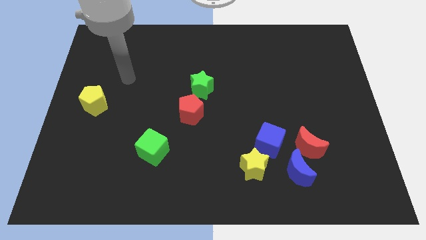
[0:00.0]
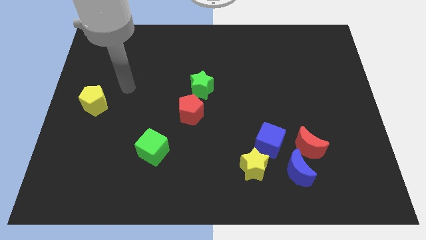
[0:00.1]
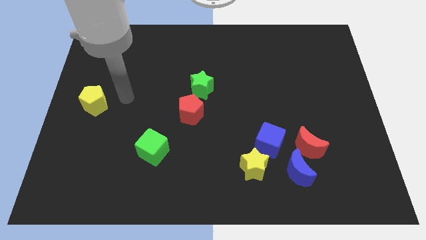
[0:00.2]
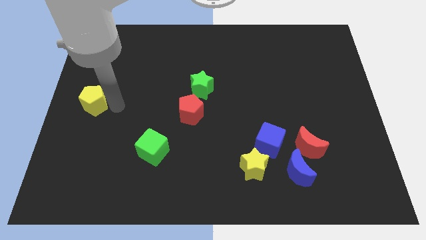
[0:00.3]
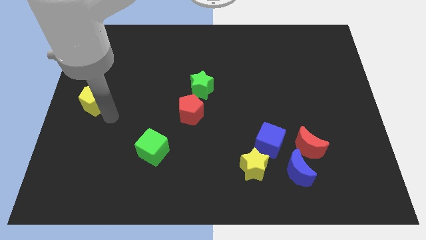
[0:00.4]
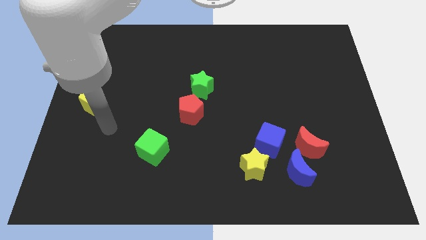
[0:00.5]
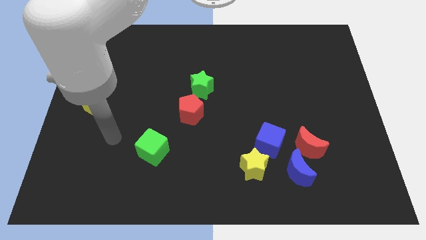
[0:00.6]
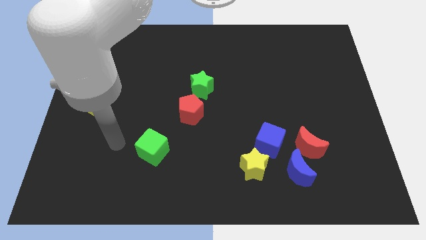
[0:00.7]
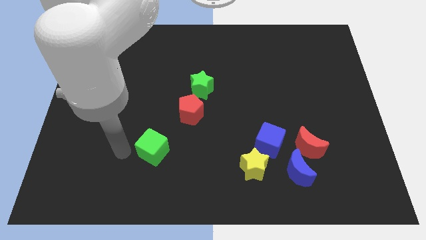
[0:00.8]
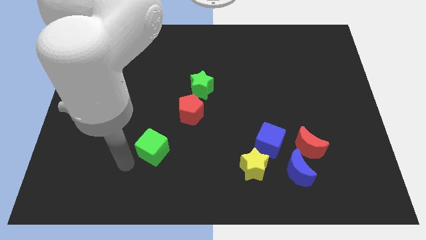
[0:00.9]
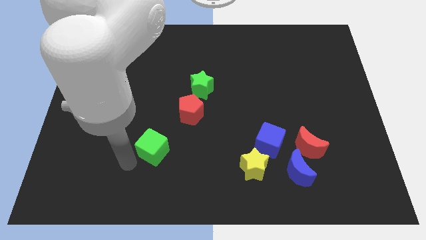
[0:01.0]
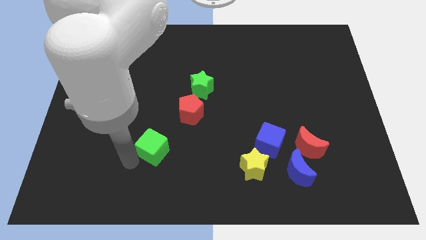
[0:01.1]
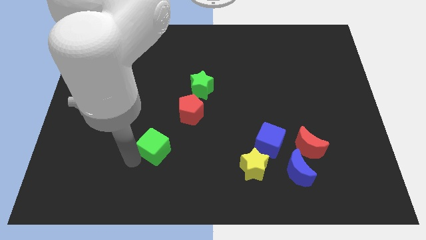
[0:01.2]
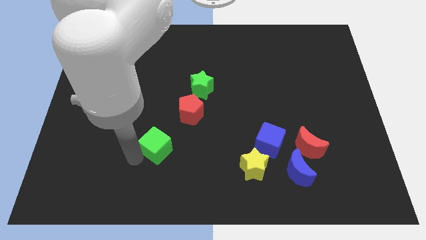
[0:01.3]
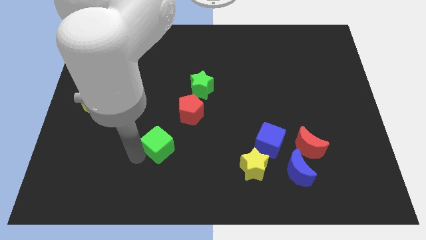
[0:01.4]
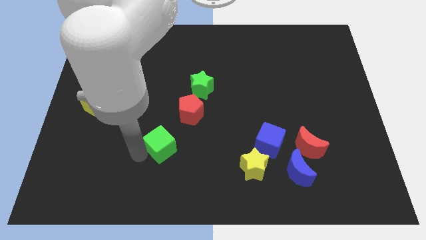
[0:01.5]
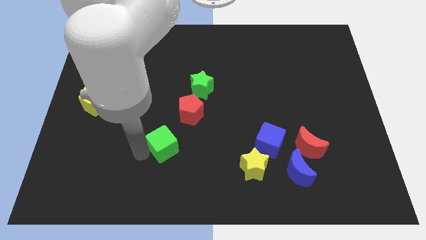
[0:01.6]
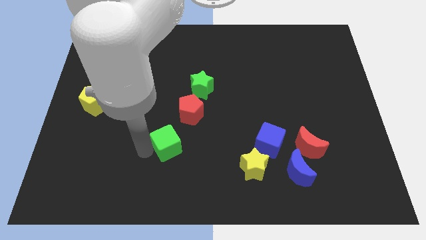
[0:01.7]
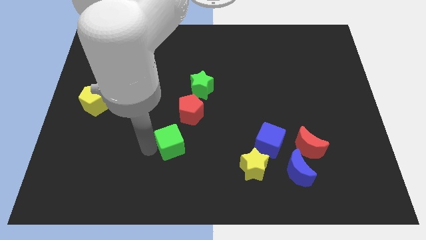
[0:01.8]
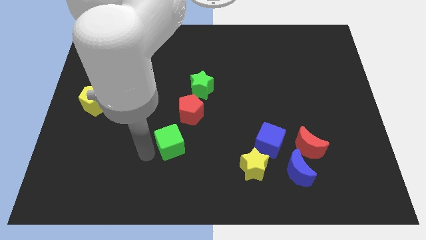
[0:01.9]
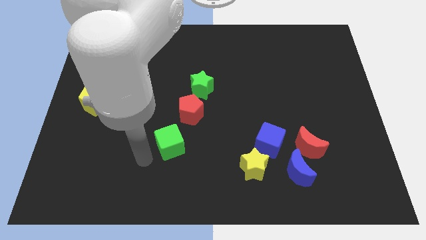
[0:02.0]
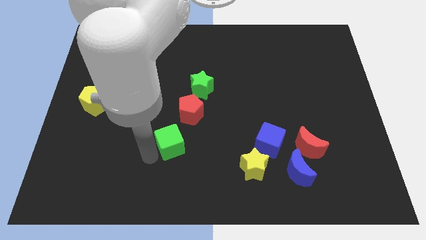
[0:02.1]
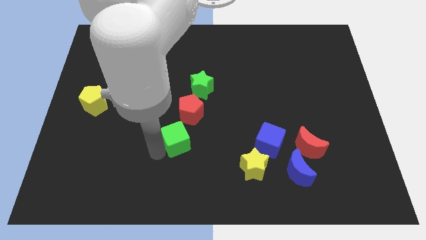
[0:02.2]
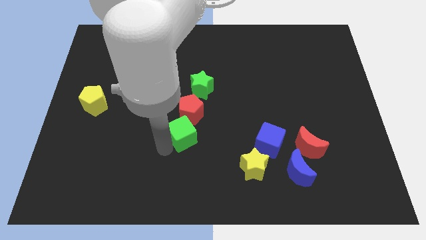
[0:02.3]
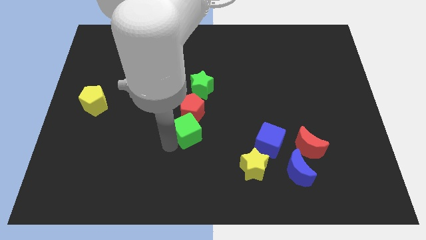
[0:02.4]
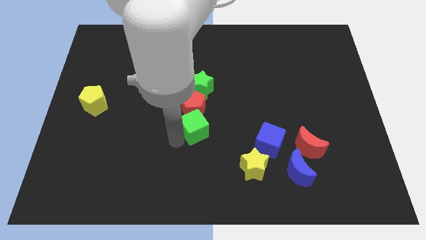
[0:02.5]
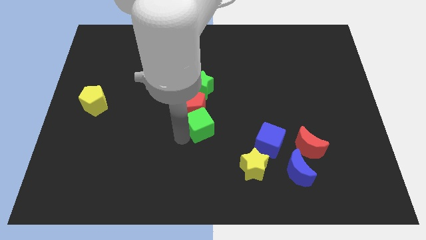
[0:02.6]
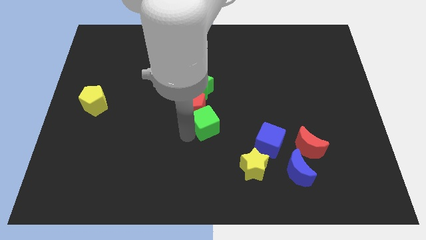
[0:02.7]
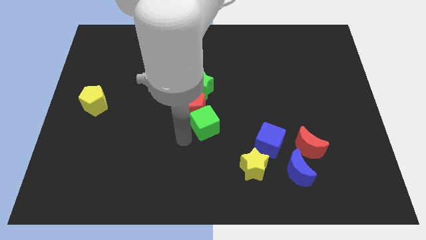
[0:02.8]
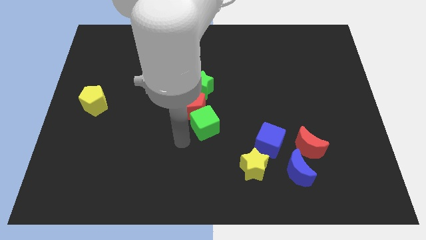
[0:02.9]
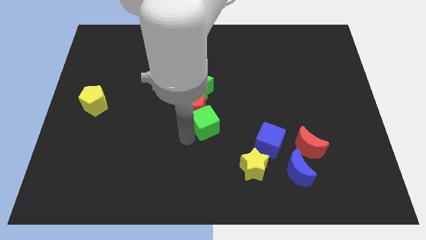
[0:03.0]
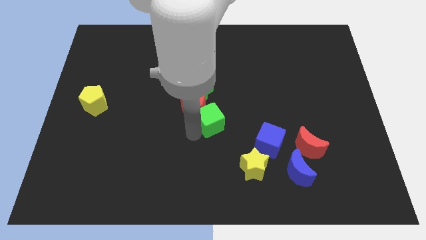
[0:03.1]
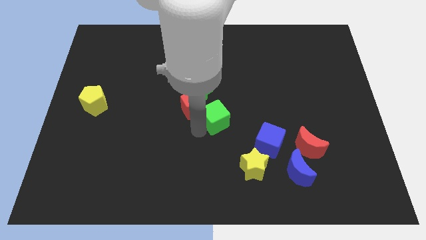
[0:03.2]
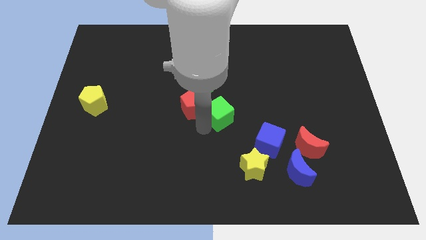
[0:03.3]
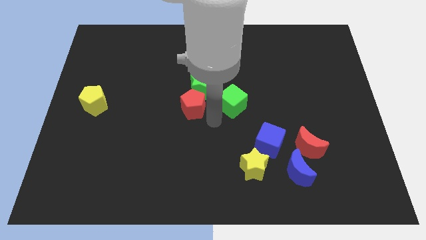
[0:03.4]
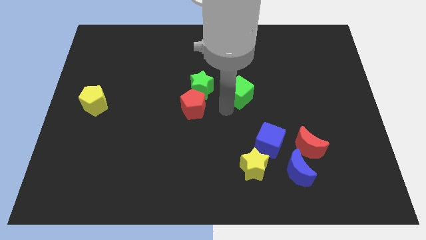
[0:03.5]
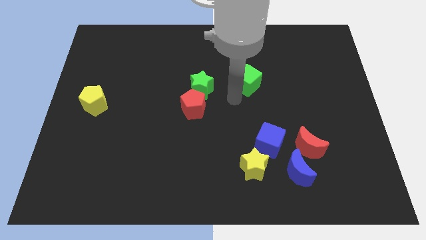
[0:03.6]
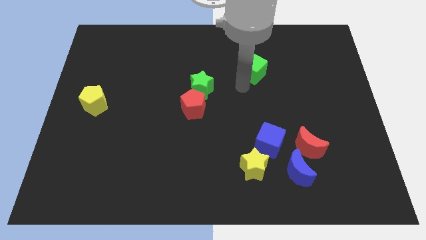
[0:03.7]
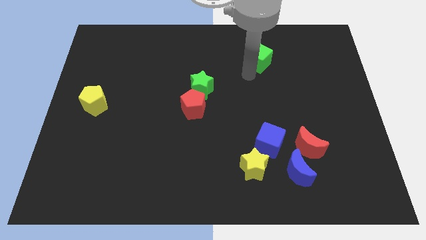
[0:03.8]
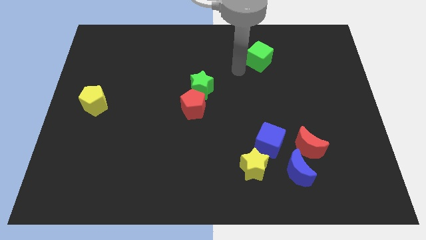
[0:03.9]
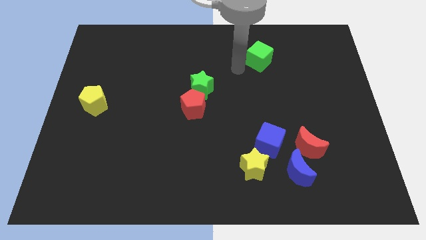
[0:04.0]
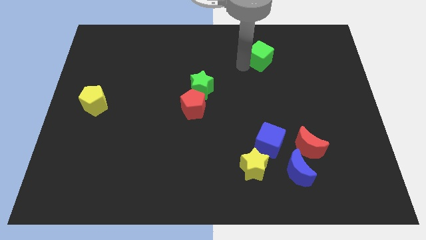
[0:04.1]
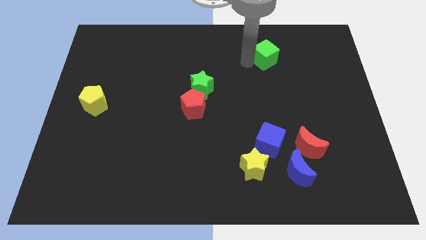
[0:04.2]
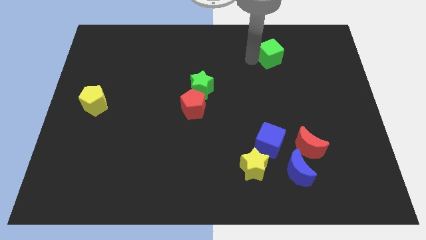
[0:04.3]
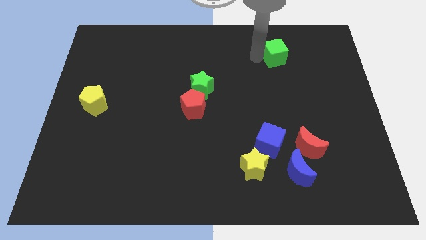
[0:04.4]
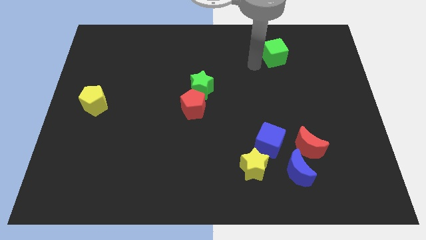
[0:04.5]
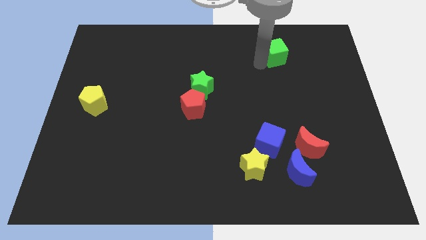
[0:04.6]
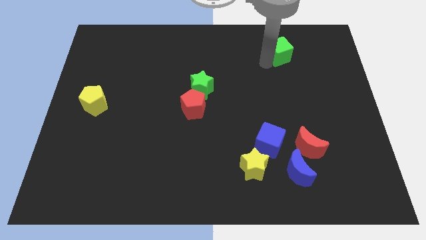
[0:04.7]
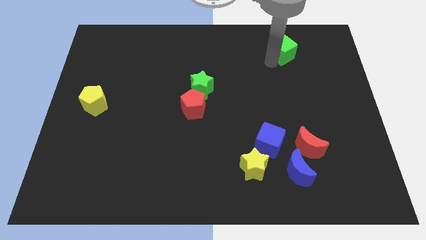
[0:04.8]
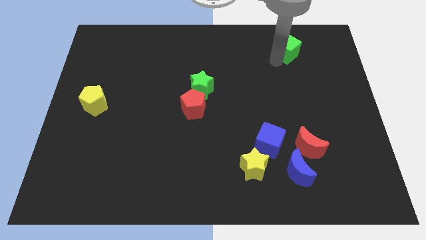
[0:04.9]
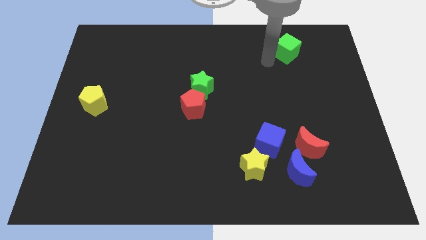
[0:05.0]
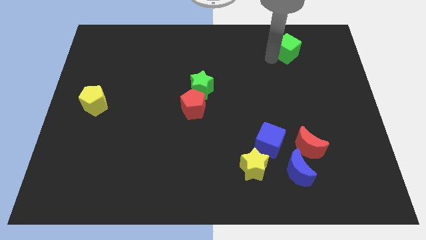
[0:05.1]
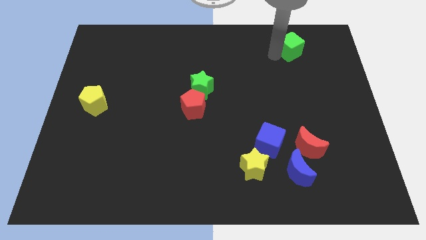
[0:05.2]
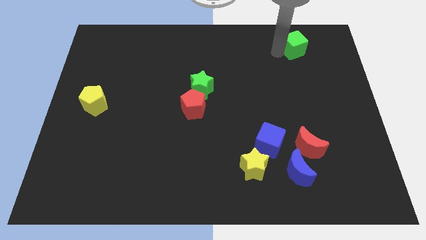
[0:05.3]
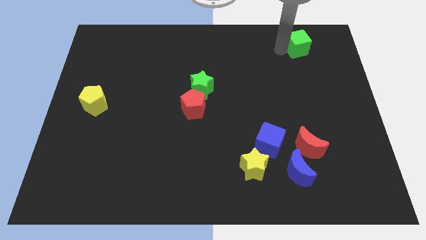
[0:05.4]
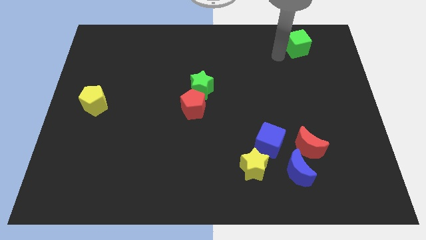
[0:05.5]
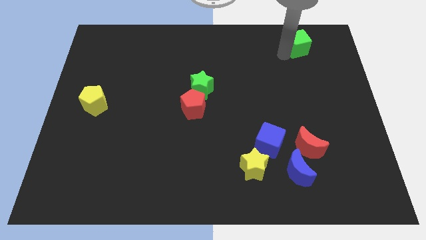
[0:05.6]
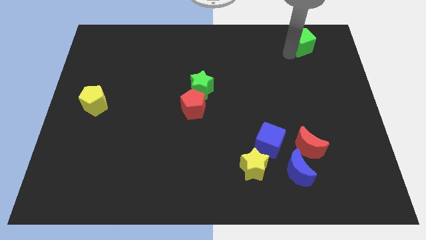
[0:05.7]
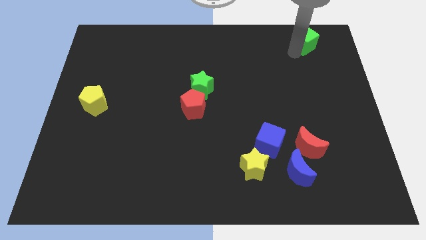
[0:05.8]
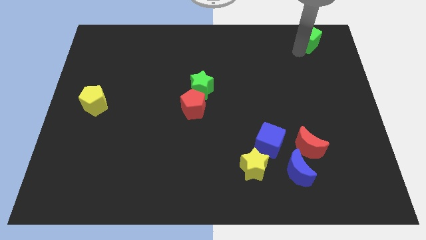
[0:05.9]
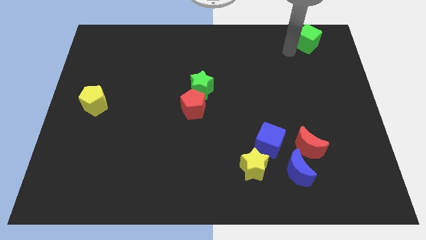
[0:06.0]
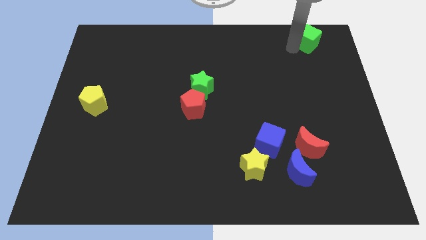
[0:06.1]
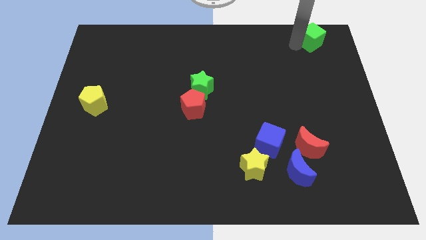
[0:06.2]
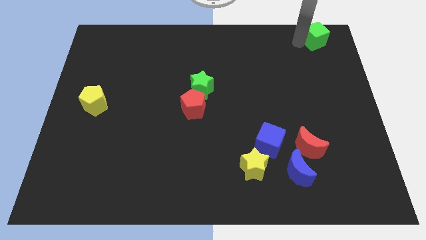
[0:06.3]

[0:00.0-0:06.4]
slide the green cube to the upper right corner

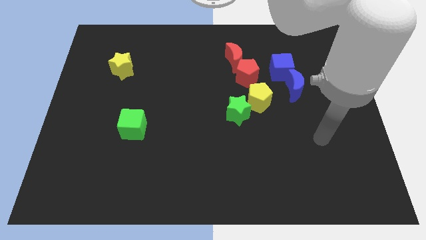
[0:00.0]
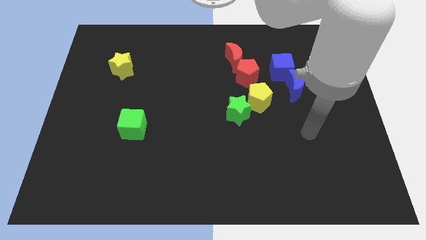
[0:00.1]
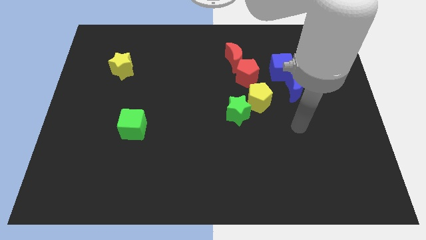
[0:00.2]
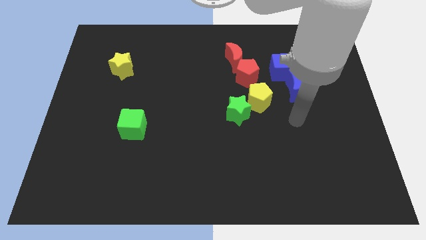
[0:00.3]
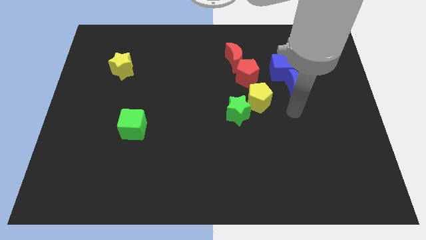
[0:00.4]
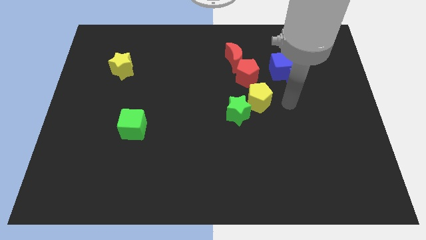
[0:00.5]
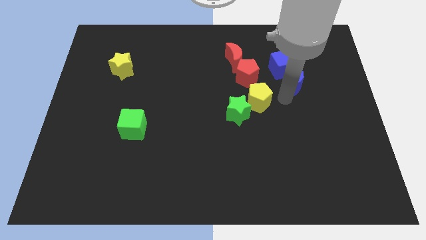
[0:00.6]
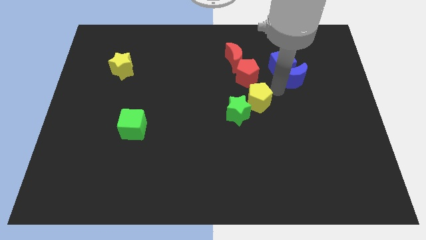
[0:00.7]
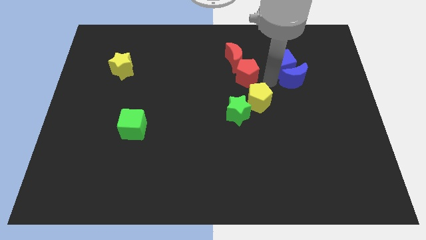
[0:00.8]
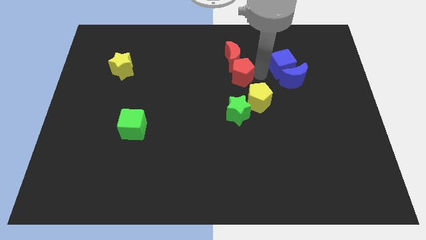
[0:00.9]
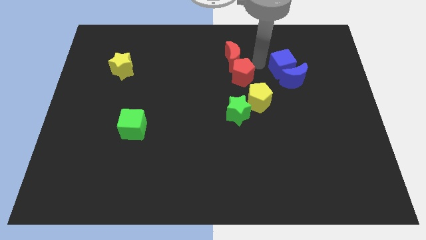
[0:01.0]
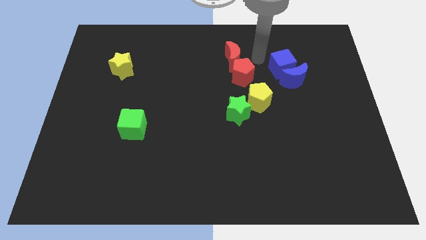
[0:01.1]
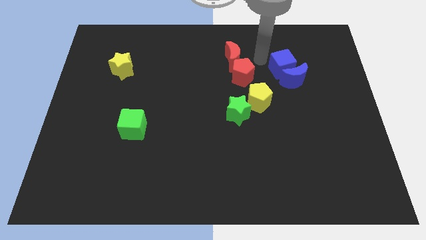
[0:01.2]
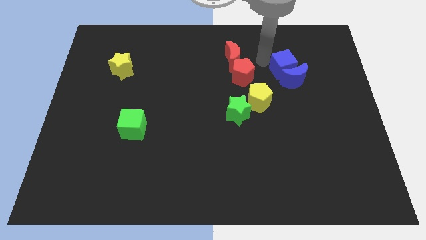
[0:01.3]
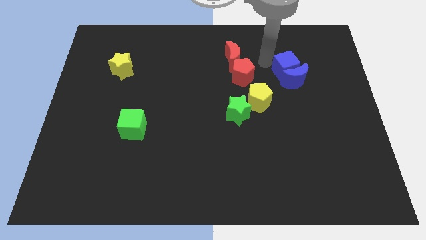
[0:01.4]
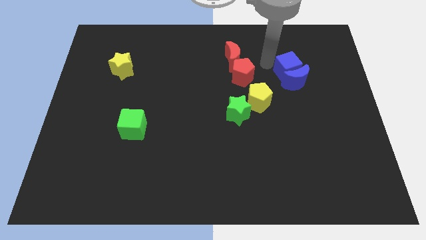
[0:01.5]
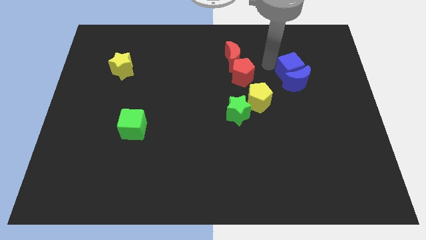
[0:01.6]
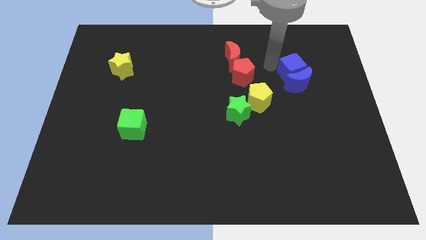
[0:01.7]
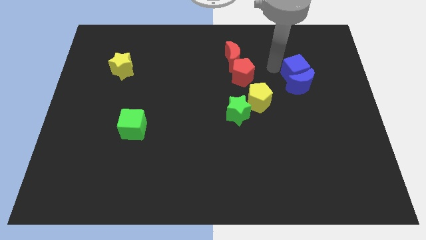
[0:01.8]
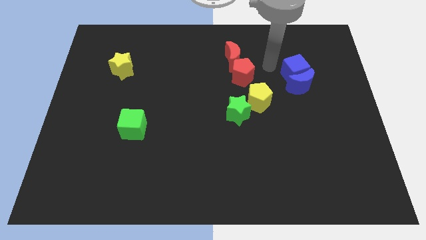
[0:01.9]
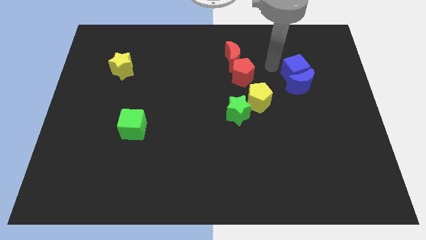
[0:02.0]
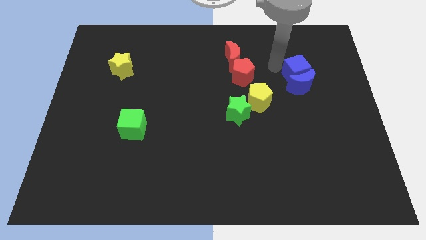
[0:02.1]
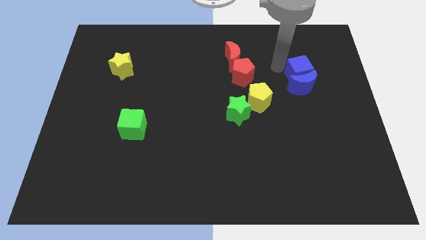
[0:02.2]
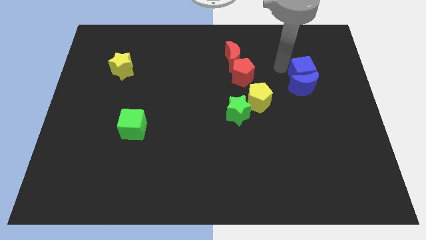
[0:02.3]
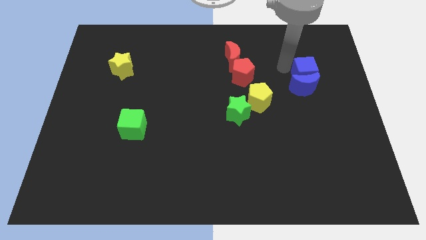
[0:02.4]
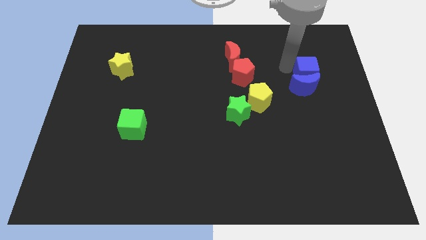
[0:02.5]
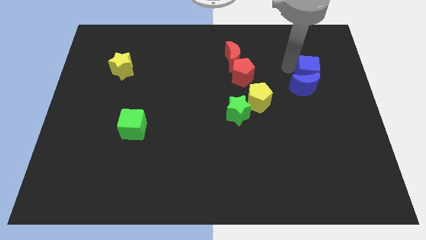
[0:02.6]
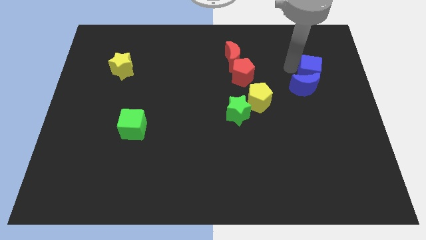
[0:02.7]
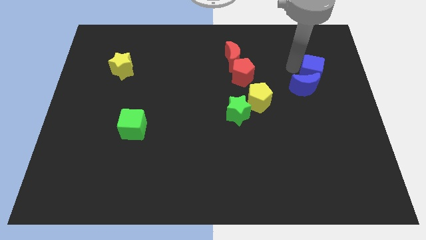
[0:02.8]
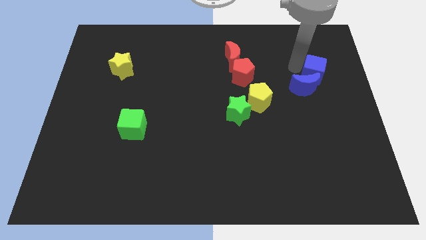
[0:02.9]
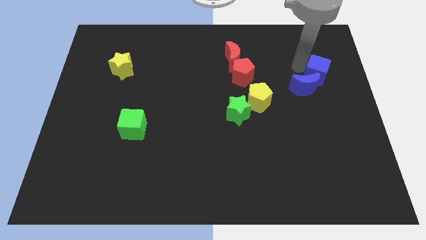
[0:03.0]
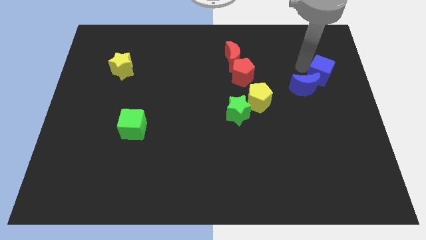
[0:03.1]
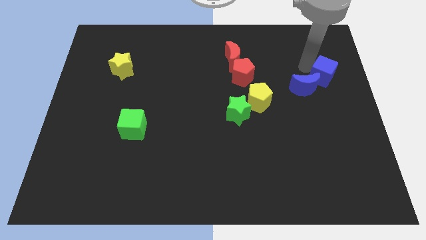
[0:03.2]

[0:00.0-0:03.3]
put the blue cube to the center right
